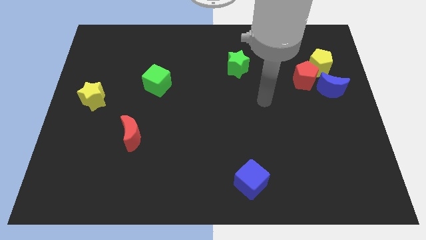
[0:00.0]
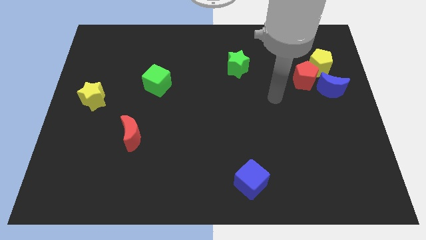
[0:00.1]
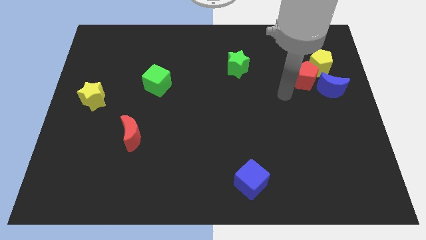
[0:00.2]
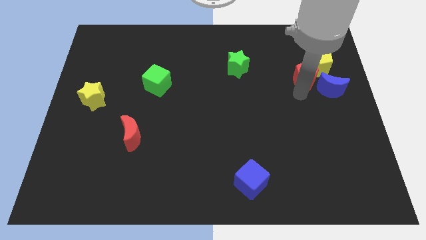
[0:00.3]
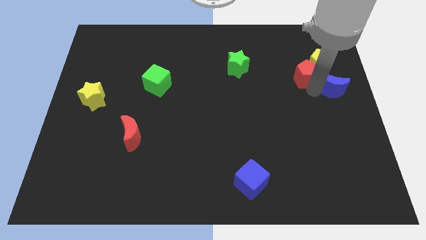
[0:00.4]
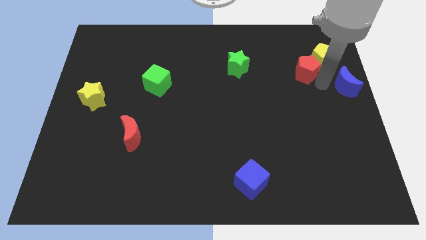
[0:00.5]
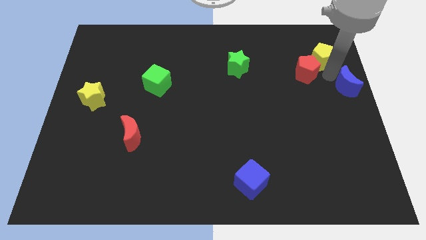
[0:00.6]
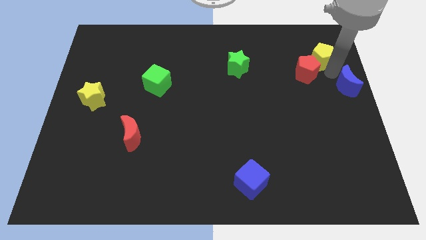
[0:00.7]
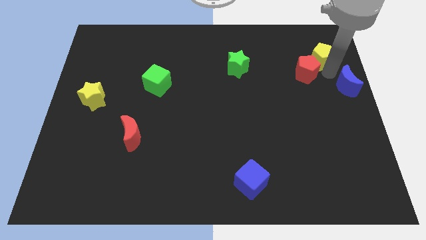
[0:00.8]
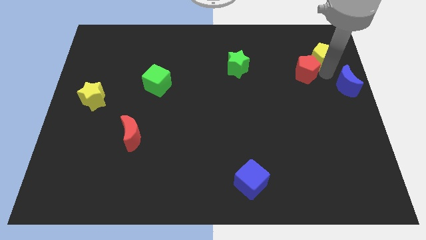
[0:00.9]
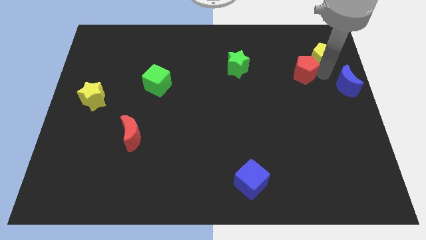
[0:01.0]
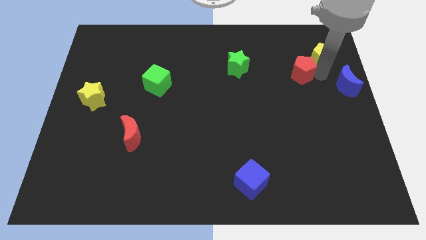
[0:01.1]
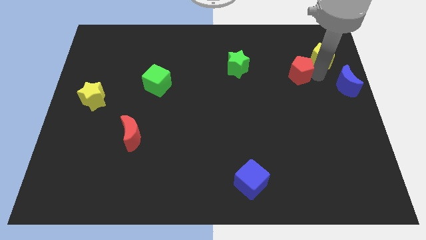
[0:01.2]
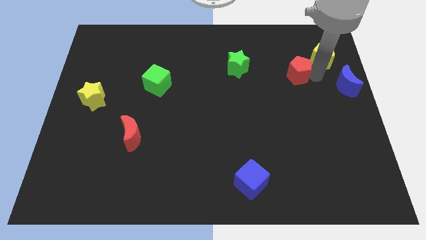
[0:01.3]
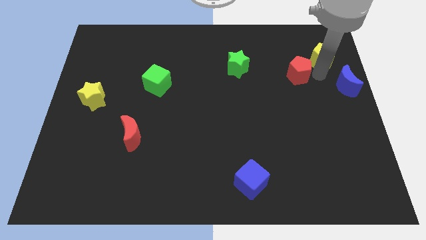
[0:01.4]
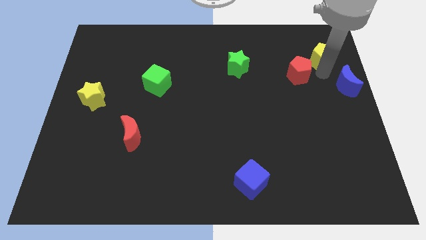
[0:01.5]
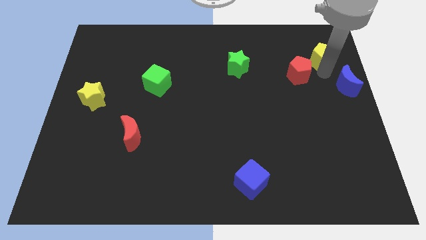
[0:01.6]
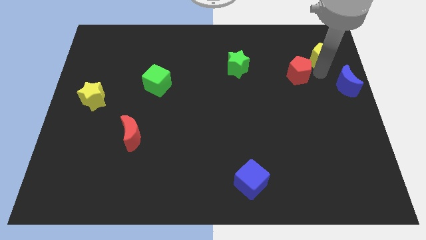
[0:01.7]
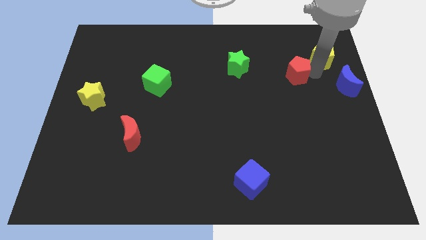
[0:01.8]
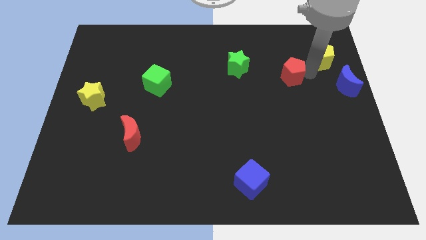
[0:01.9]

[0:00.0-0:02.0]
pull the red pentagon apart from the yellow pentagon and blue moon

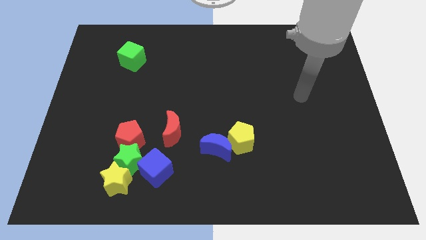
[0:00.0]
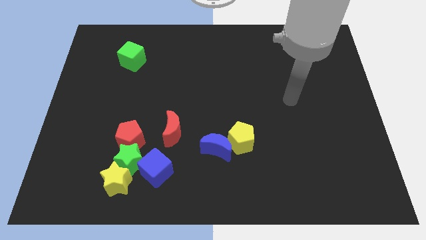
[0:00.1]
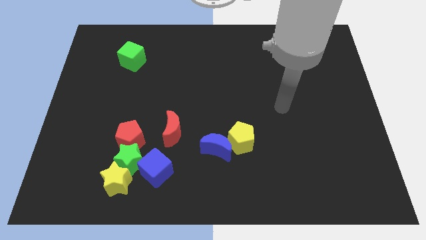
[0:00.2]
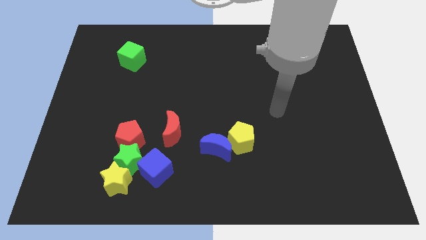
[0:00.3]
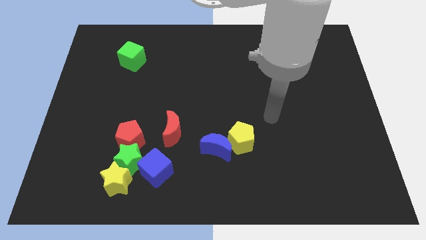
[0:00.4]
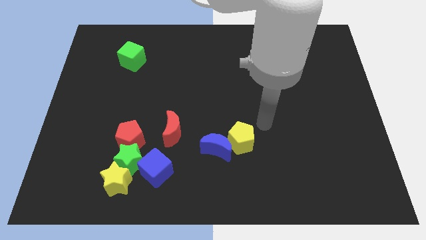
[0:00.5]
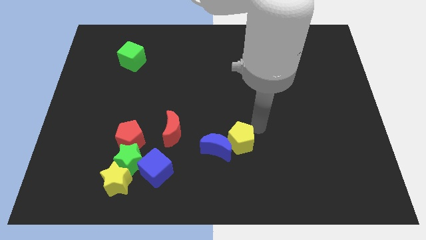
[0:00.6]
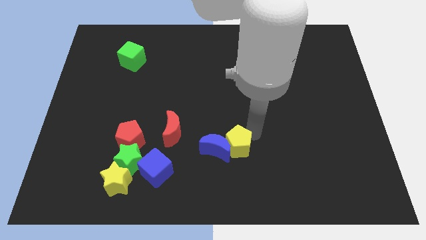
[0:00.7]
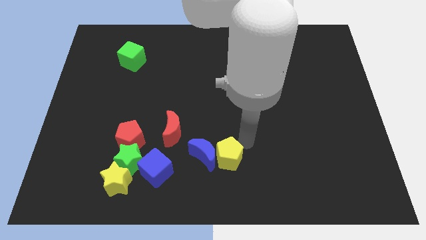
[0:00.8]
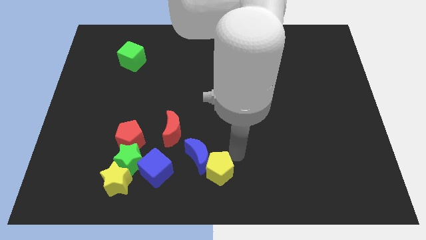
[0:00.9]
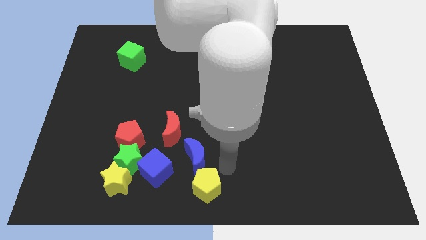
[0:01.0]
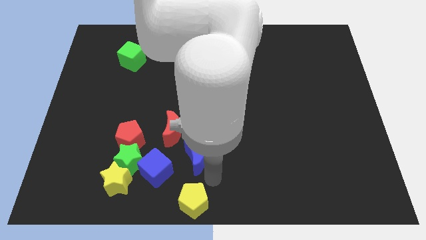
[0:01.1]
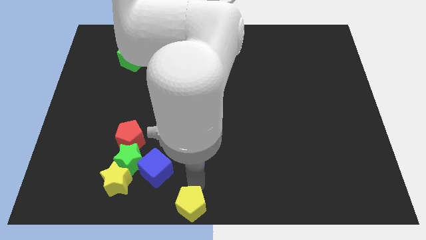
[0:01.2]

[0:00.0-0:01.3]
move the blue moon away from the yellow pentagon

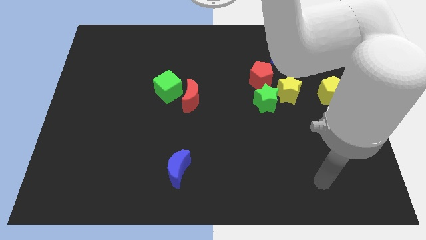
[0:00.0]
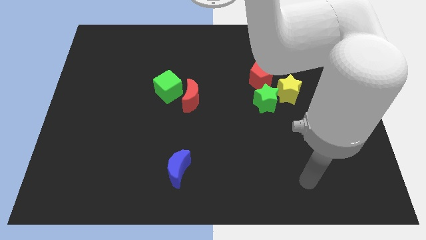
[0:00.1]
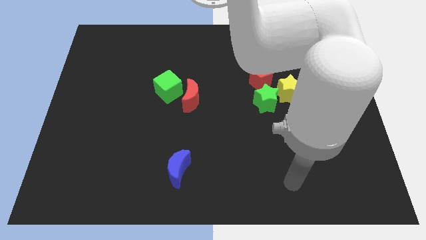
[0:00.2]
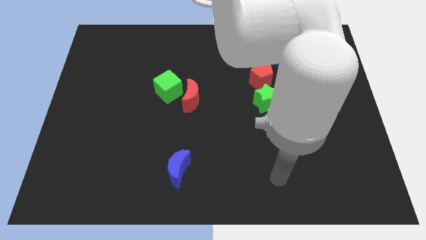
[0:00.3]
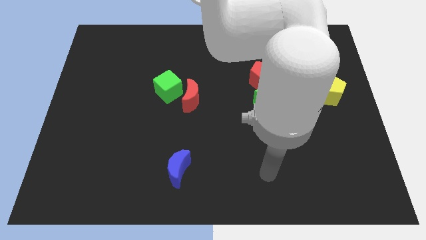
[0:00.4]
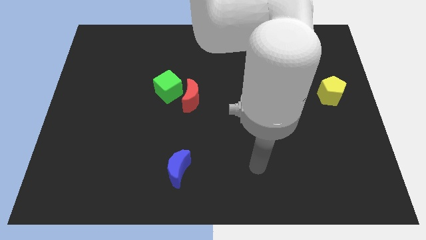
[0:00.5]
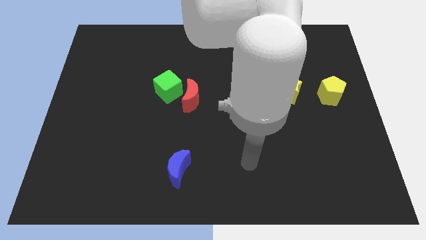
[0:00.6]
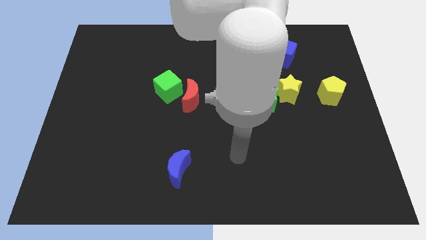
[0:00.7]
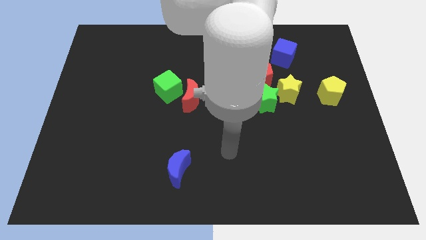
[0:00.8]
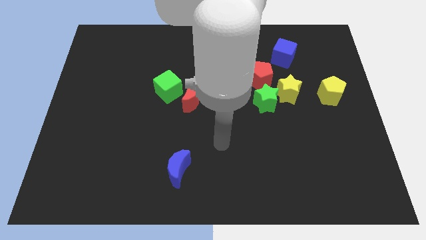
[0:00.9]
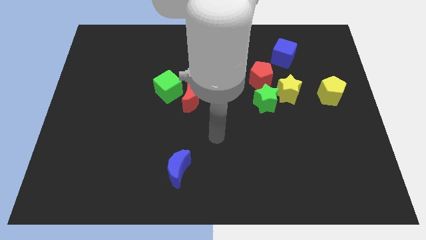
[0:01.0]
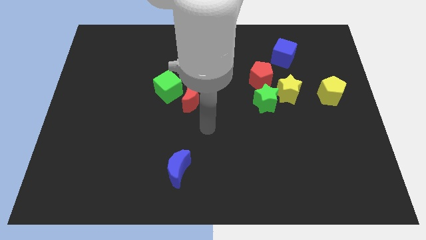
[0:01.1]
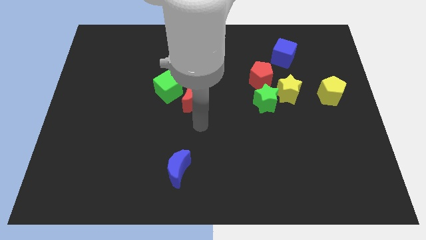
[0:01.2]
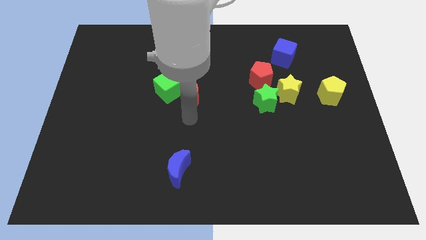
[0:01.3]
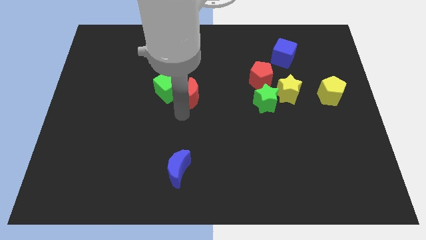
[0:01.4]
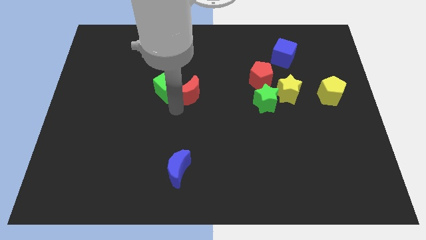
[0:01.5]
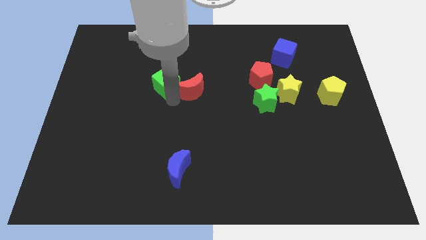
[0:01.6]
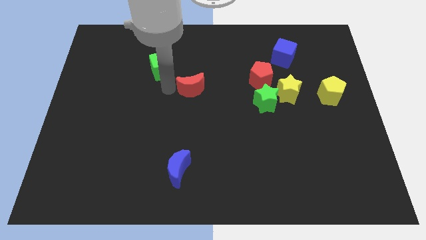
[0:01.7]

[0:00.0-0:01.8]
pull the red moon apart from the green cube

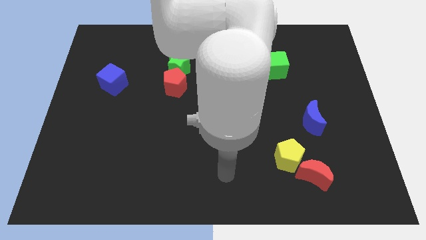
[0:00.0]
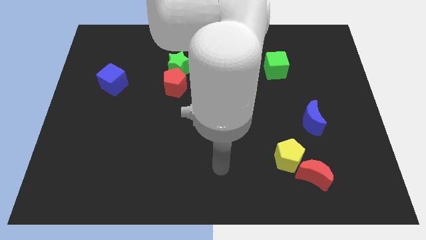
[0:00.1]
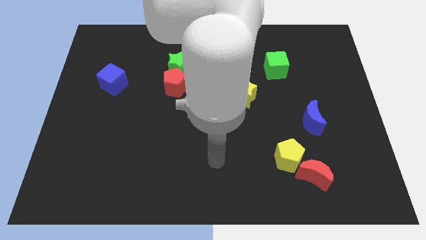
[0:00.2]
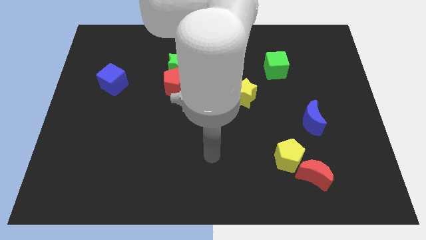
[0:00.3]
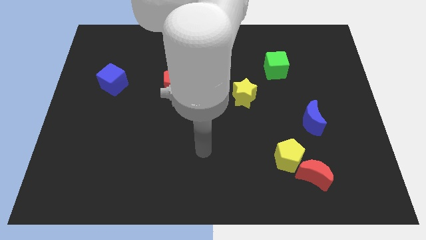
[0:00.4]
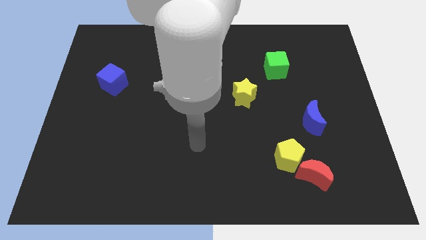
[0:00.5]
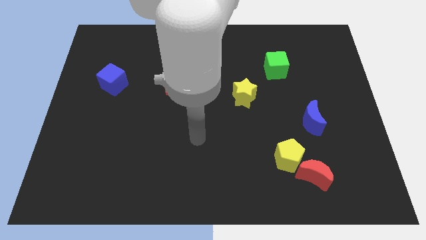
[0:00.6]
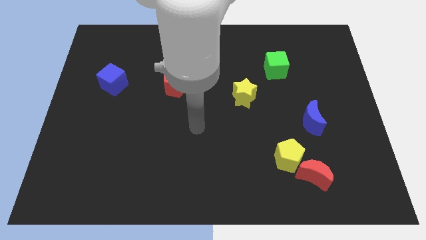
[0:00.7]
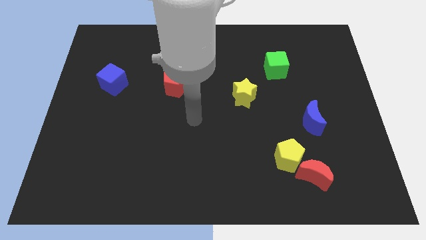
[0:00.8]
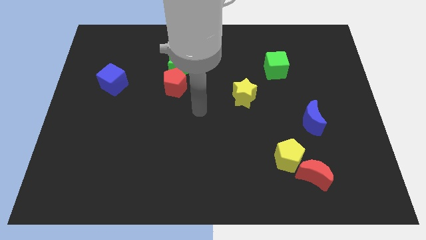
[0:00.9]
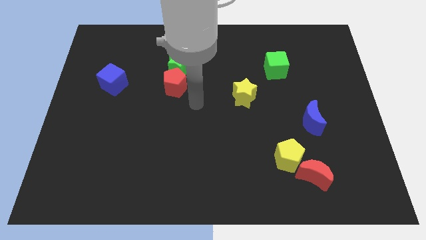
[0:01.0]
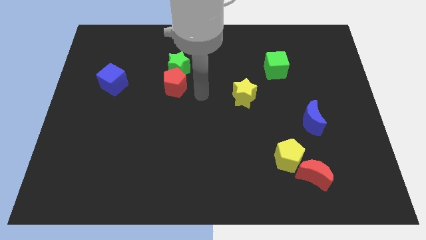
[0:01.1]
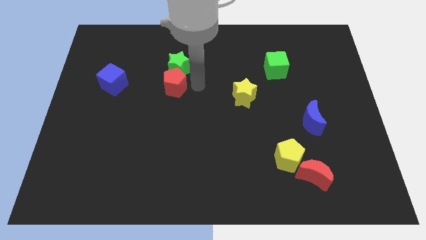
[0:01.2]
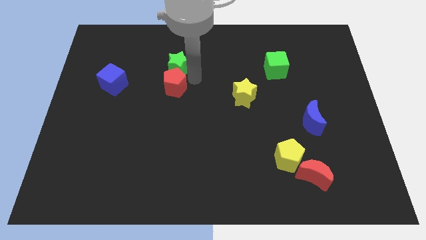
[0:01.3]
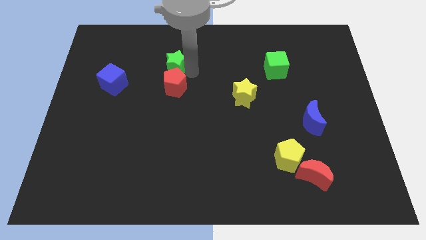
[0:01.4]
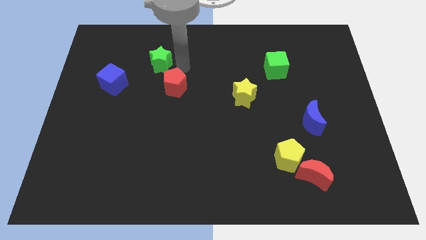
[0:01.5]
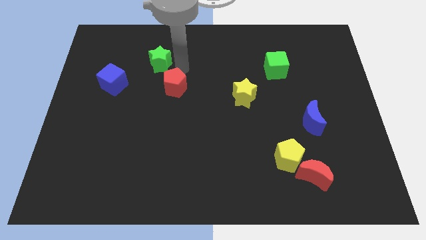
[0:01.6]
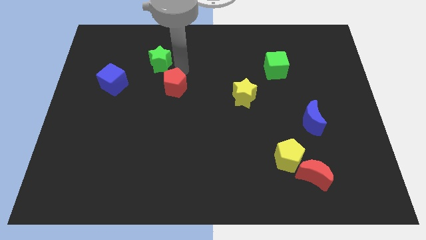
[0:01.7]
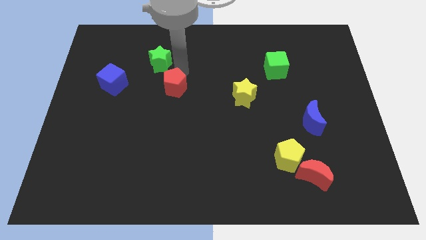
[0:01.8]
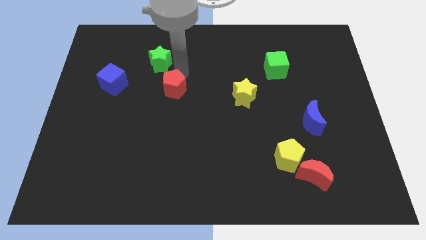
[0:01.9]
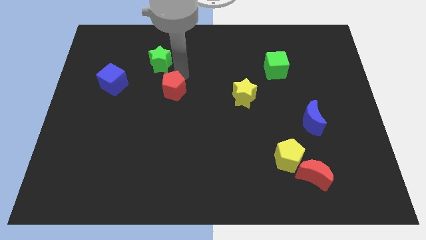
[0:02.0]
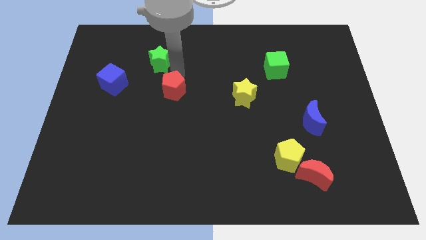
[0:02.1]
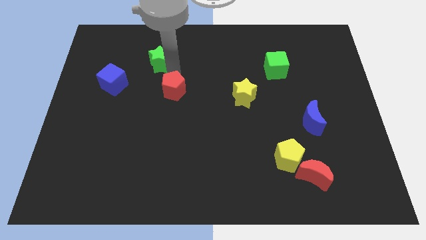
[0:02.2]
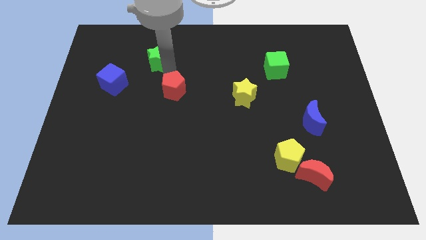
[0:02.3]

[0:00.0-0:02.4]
pull the red pentagon apart from the green star

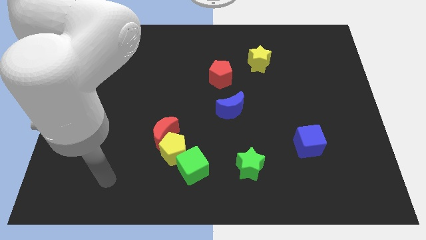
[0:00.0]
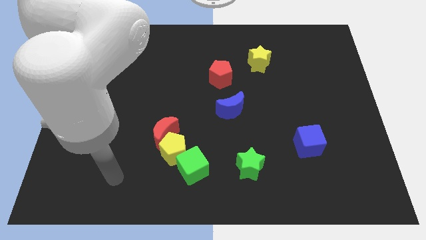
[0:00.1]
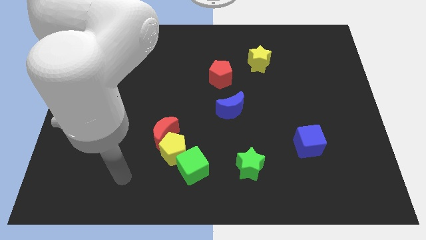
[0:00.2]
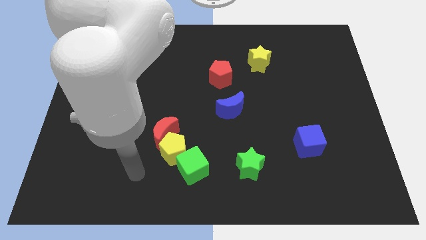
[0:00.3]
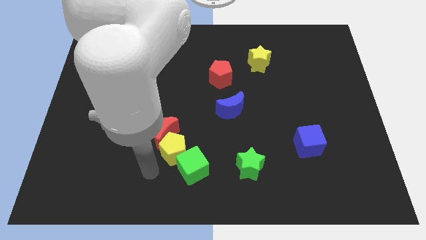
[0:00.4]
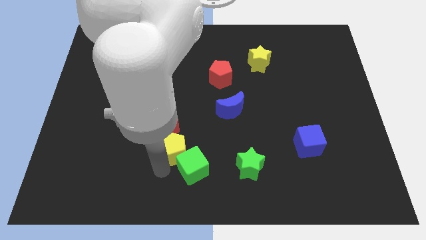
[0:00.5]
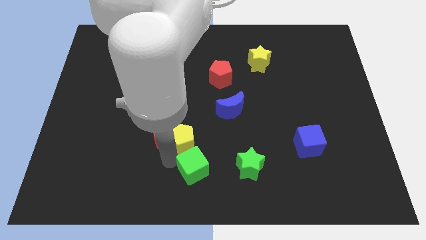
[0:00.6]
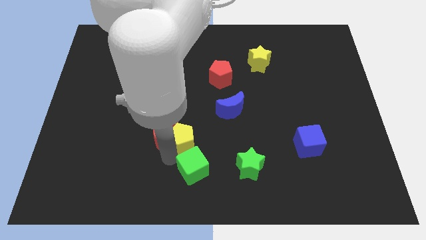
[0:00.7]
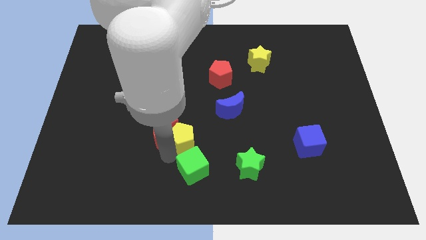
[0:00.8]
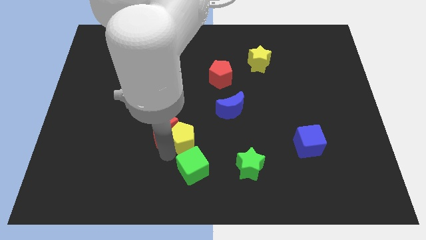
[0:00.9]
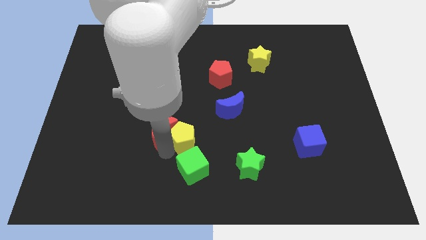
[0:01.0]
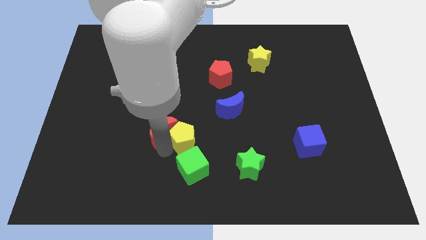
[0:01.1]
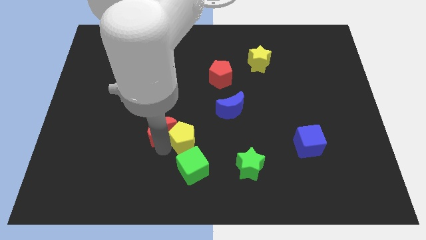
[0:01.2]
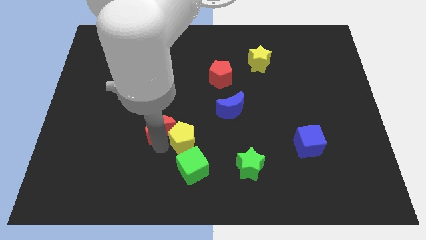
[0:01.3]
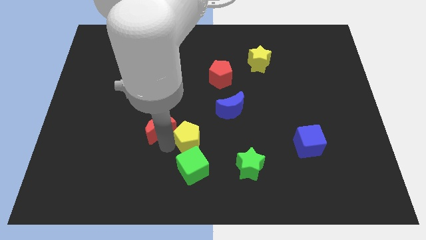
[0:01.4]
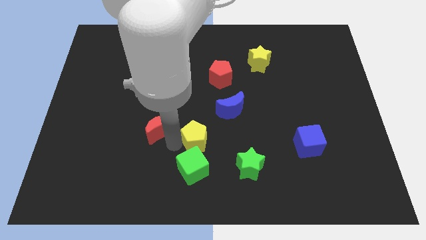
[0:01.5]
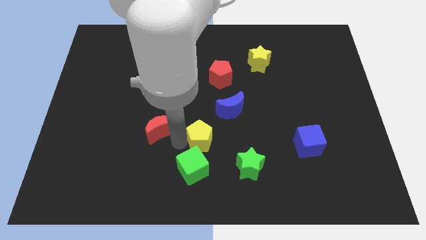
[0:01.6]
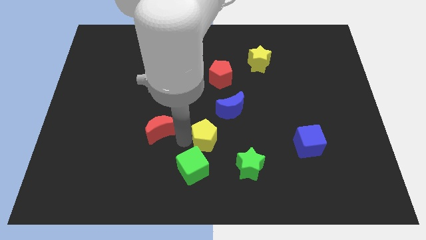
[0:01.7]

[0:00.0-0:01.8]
separate the red moon from the yellow pentagon
